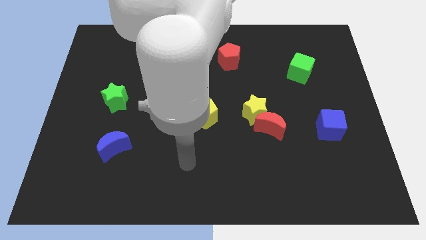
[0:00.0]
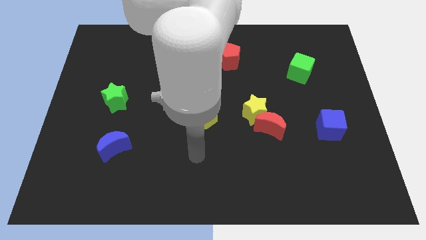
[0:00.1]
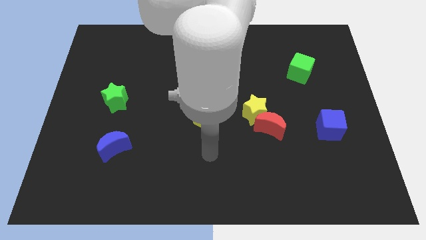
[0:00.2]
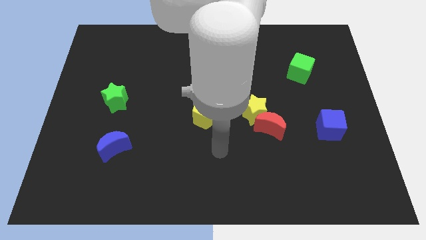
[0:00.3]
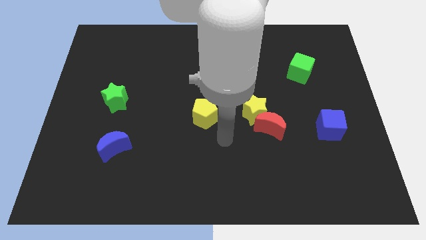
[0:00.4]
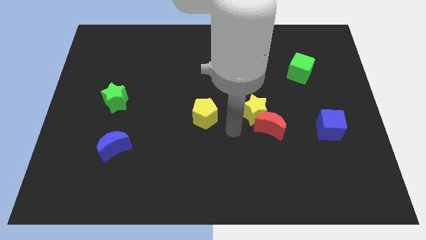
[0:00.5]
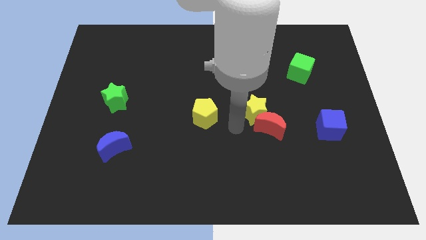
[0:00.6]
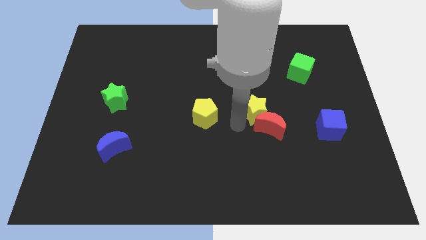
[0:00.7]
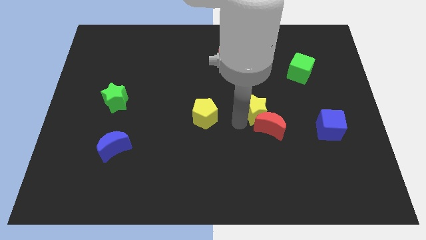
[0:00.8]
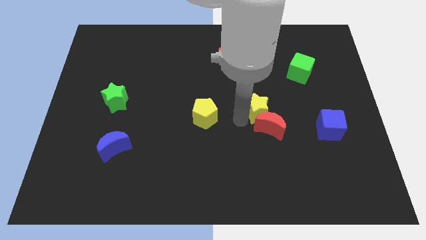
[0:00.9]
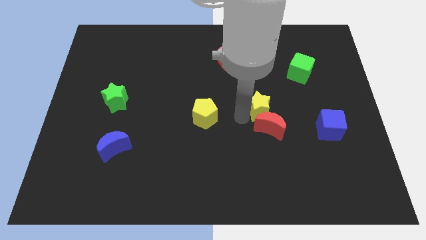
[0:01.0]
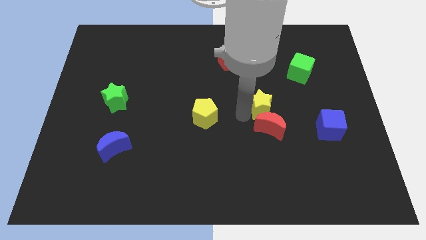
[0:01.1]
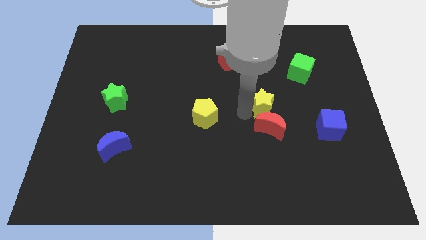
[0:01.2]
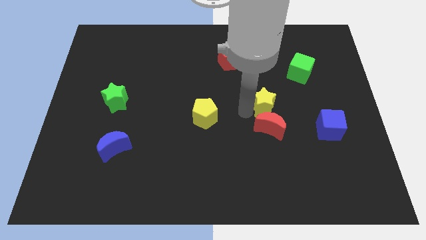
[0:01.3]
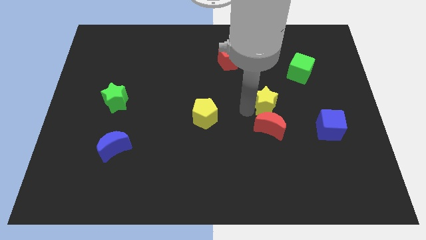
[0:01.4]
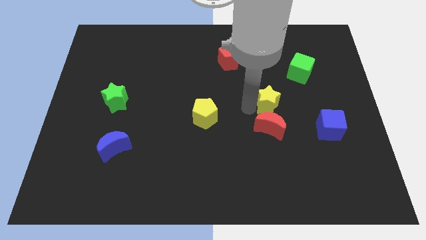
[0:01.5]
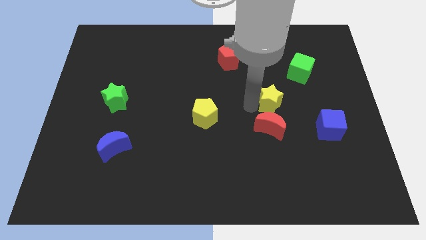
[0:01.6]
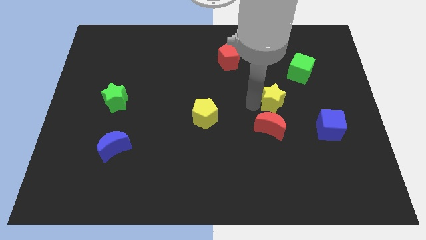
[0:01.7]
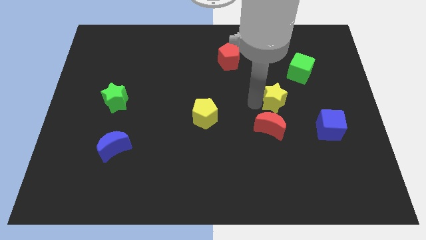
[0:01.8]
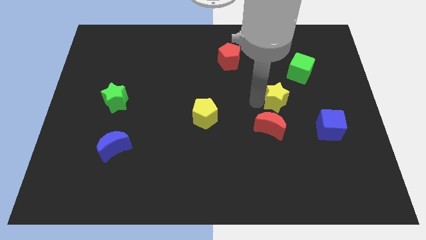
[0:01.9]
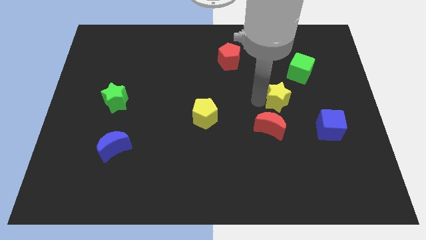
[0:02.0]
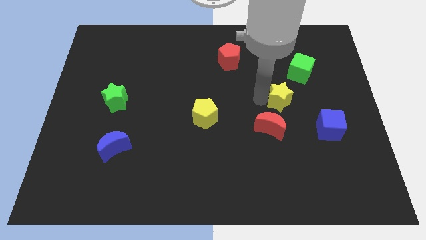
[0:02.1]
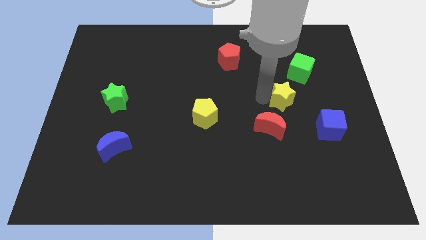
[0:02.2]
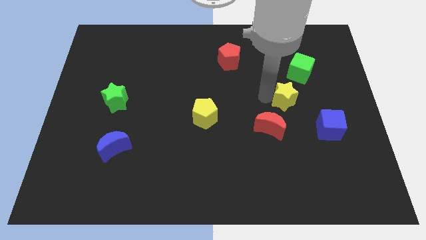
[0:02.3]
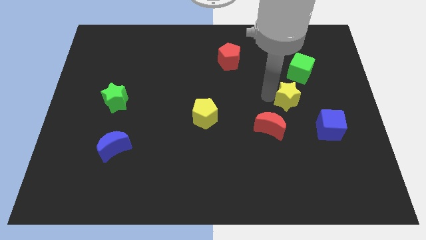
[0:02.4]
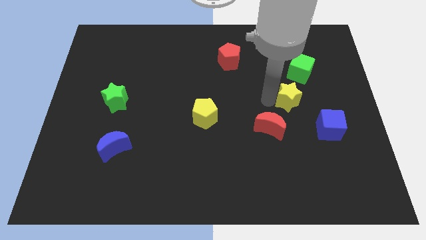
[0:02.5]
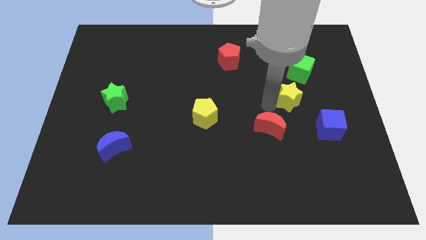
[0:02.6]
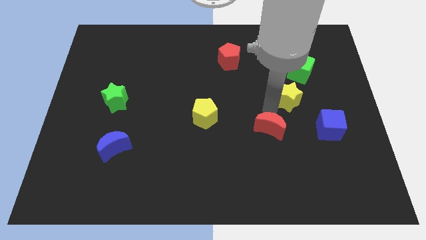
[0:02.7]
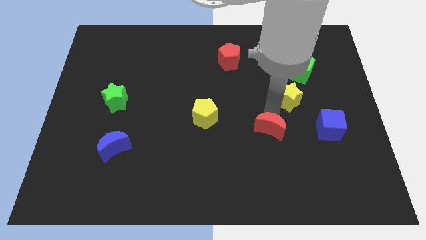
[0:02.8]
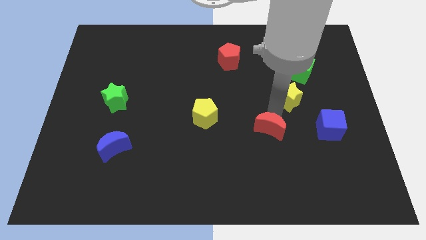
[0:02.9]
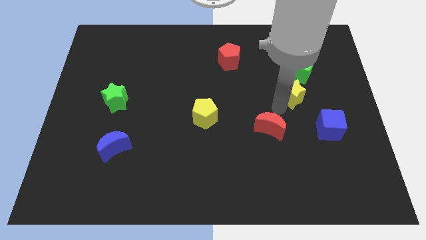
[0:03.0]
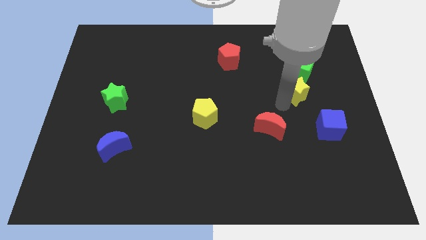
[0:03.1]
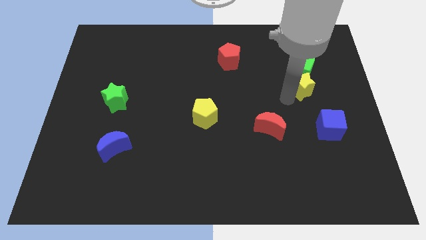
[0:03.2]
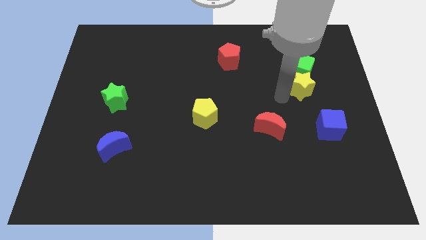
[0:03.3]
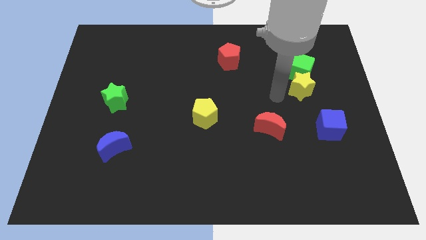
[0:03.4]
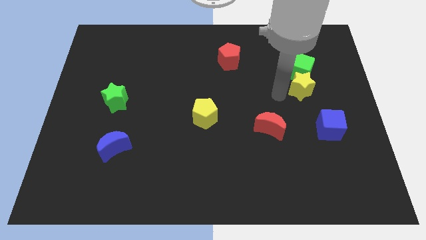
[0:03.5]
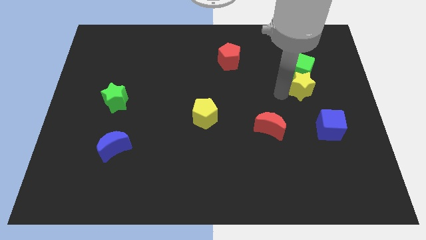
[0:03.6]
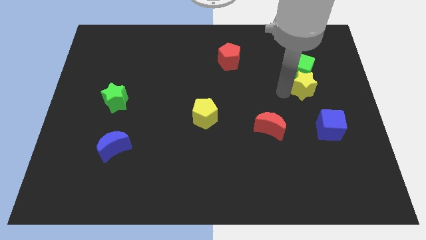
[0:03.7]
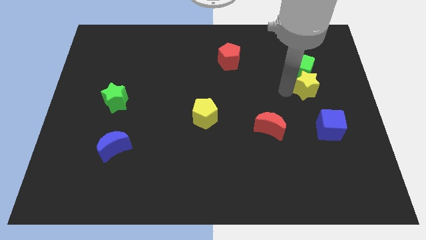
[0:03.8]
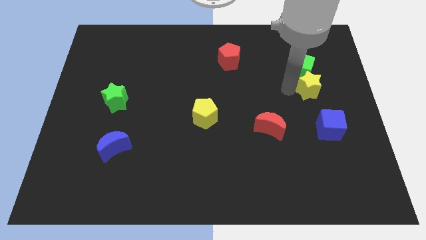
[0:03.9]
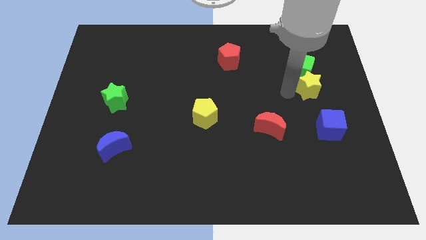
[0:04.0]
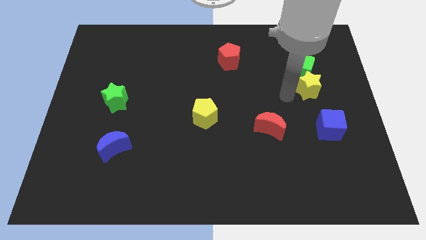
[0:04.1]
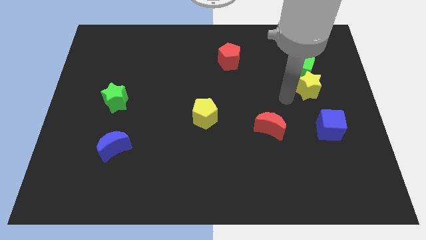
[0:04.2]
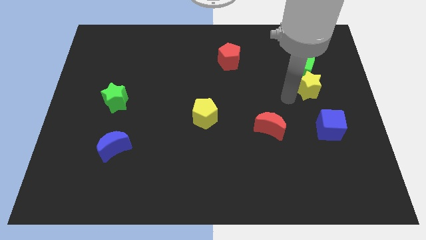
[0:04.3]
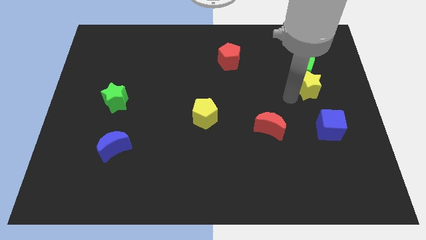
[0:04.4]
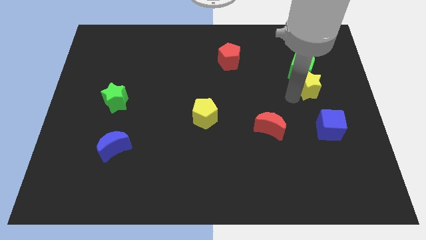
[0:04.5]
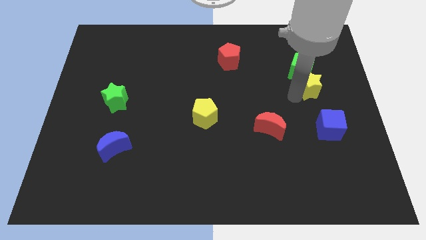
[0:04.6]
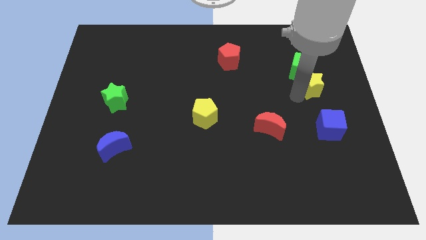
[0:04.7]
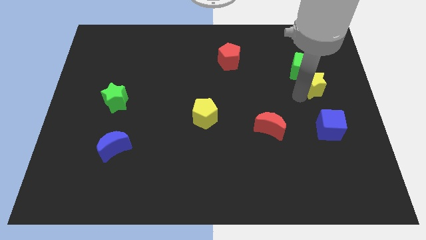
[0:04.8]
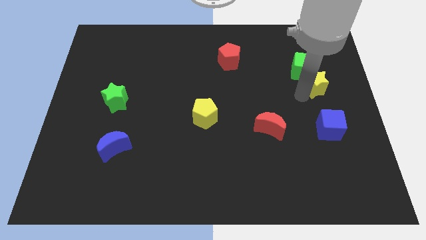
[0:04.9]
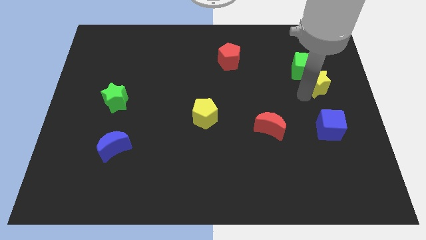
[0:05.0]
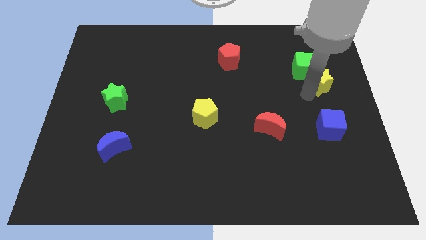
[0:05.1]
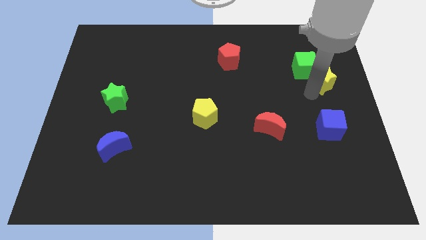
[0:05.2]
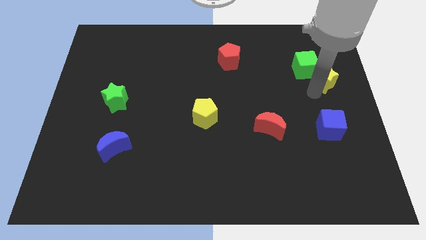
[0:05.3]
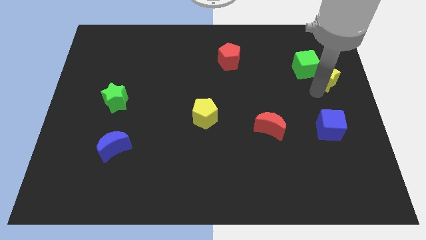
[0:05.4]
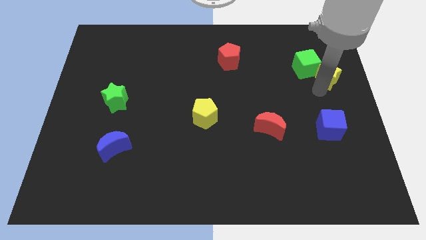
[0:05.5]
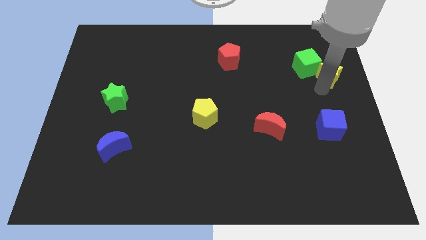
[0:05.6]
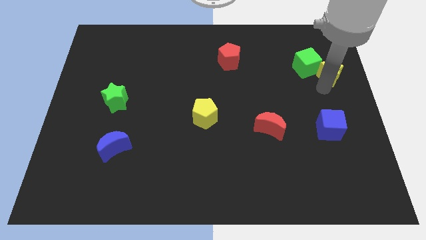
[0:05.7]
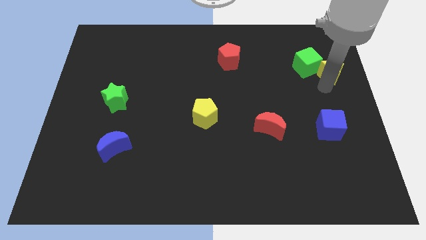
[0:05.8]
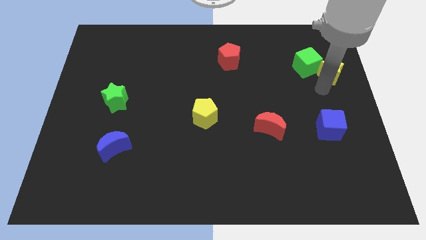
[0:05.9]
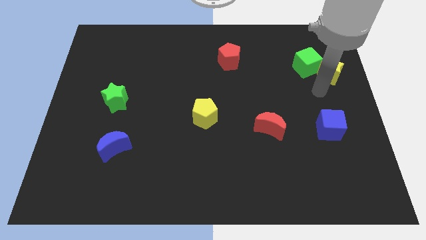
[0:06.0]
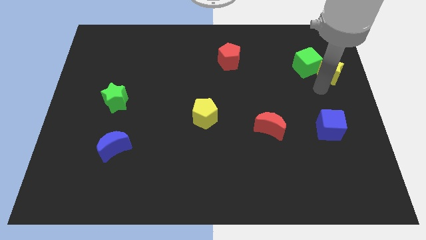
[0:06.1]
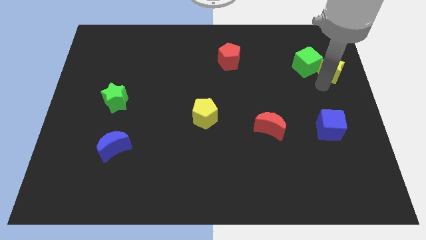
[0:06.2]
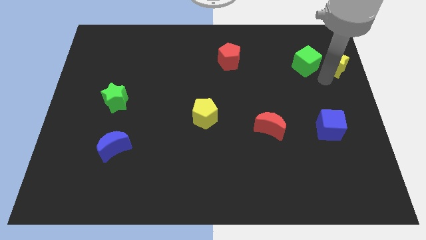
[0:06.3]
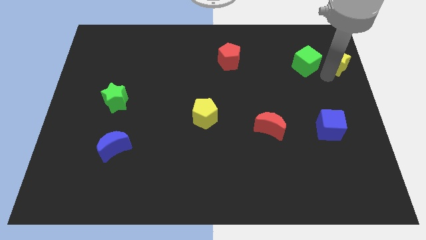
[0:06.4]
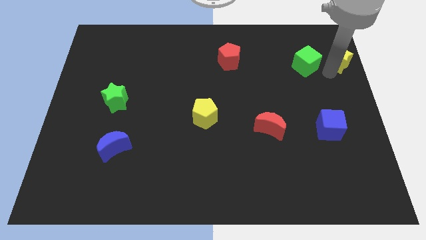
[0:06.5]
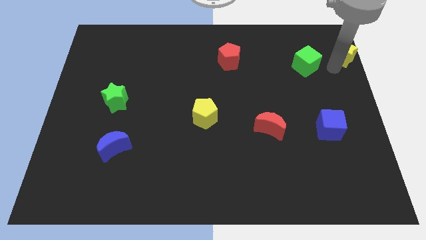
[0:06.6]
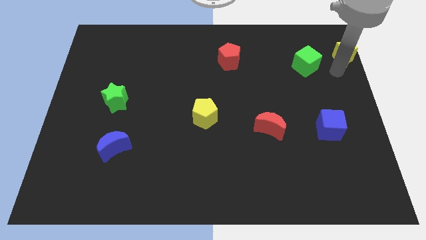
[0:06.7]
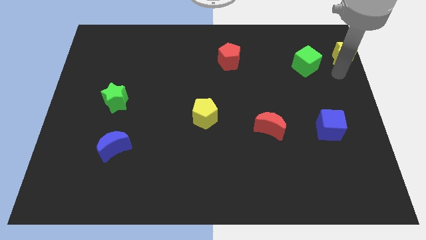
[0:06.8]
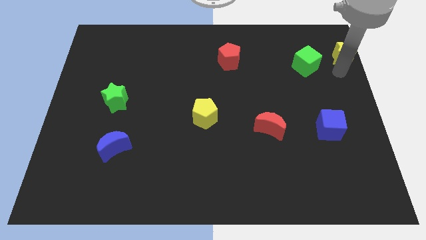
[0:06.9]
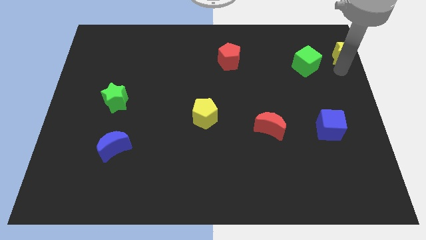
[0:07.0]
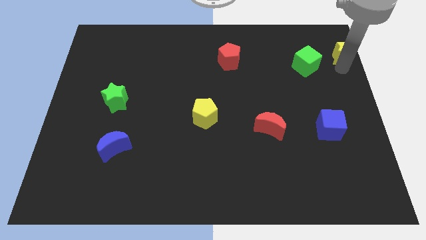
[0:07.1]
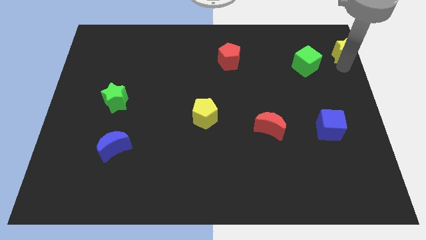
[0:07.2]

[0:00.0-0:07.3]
slide the yellow star to the top right of the board

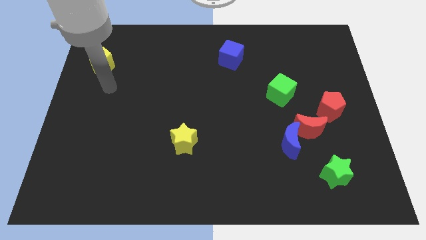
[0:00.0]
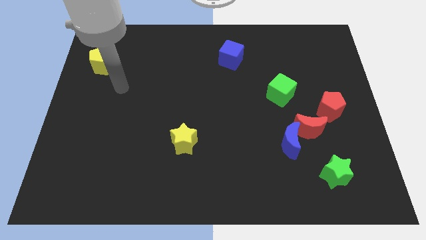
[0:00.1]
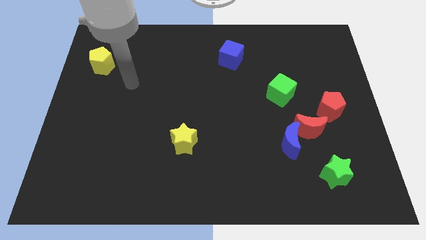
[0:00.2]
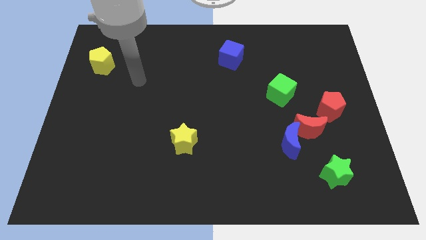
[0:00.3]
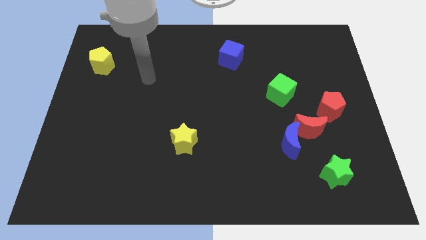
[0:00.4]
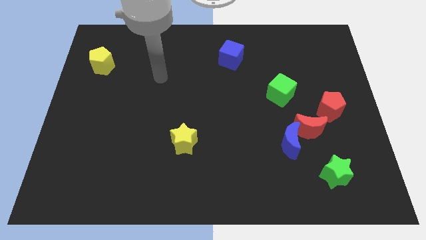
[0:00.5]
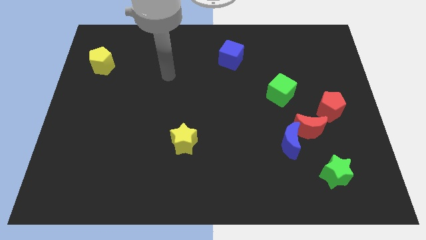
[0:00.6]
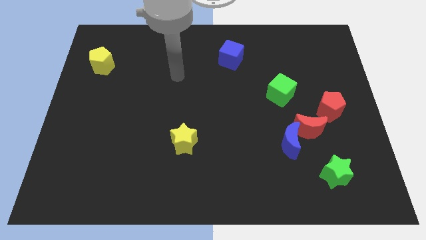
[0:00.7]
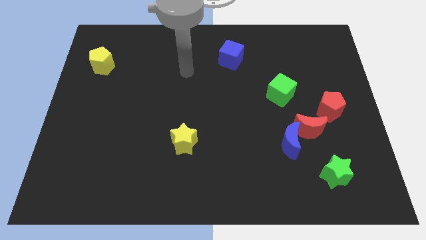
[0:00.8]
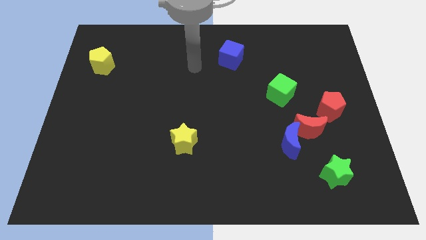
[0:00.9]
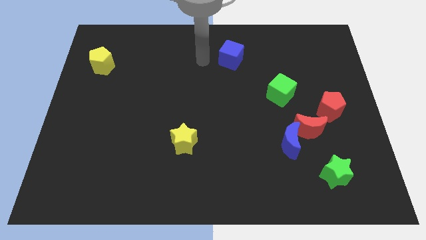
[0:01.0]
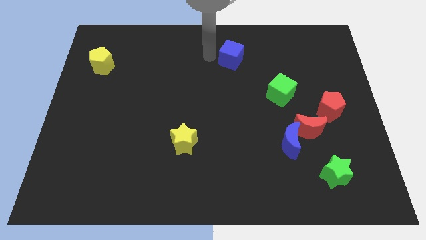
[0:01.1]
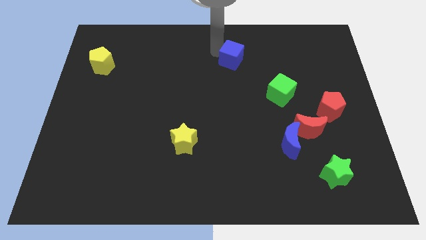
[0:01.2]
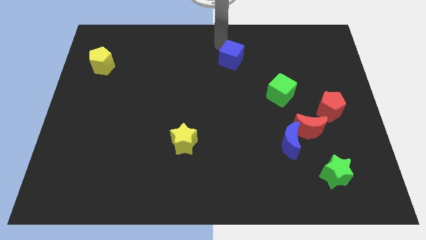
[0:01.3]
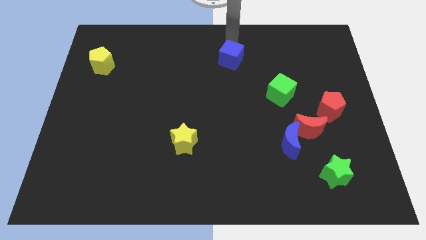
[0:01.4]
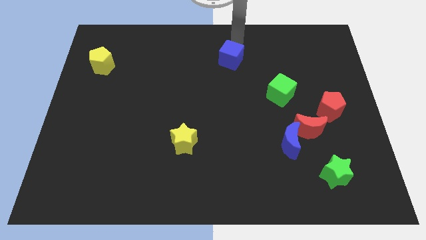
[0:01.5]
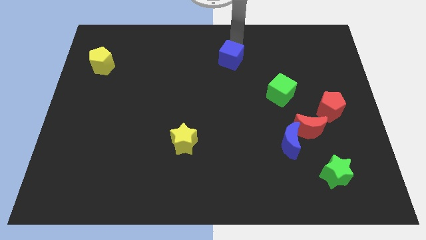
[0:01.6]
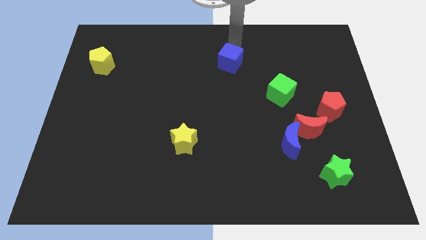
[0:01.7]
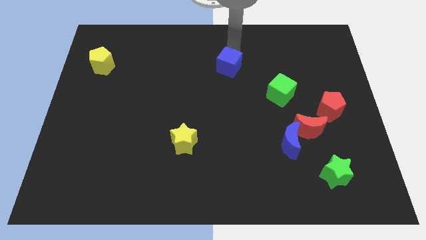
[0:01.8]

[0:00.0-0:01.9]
slide the blue cube to the middle
